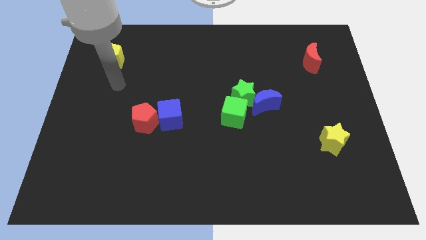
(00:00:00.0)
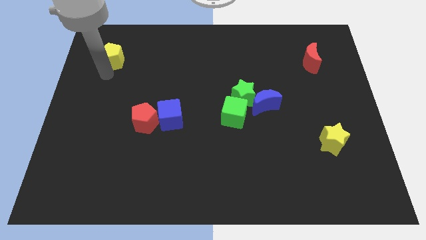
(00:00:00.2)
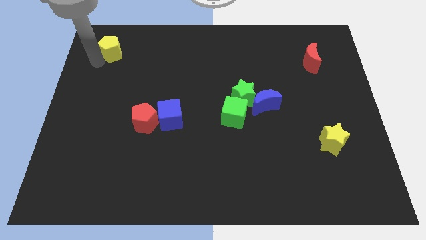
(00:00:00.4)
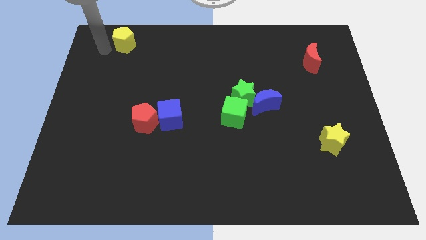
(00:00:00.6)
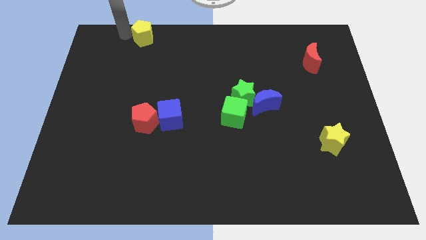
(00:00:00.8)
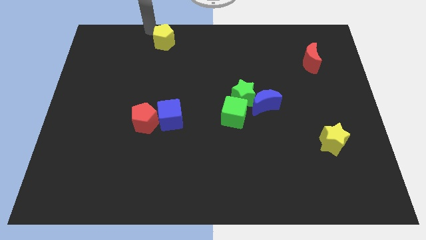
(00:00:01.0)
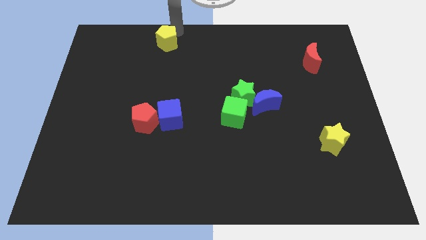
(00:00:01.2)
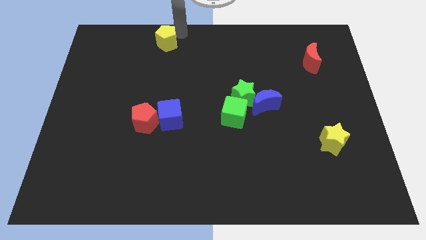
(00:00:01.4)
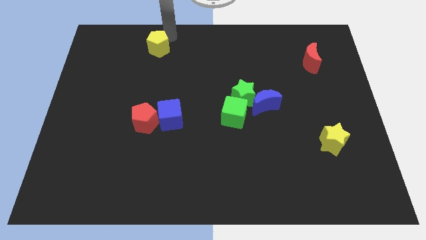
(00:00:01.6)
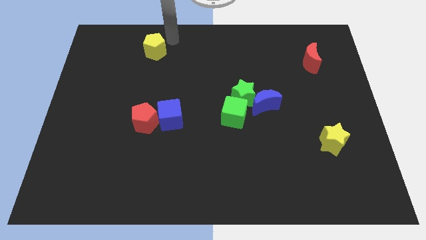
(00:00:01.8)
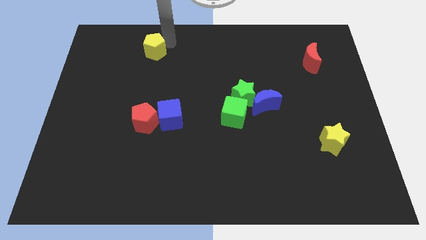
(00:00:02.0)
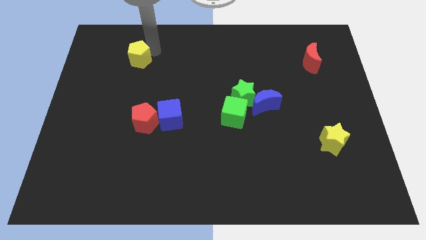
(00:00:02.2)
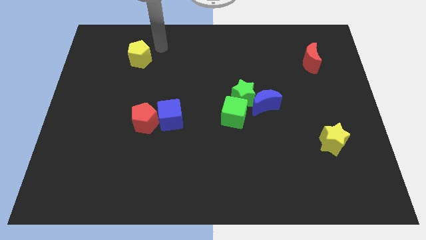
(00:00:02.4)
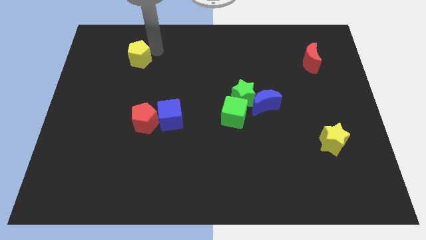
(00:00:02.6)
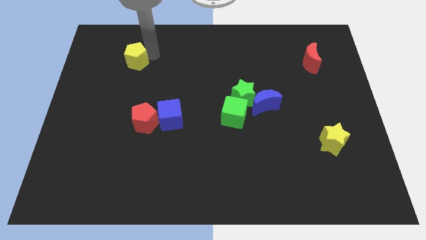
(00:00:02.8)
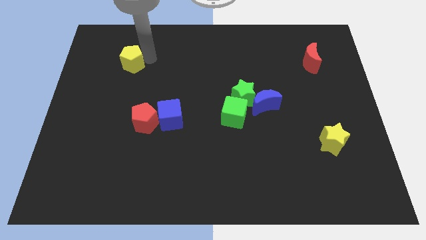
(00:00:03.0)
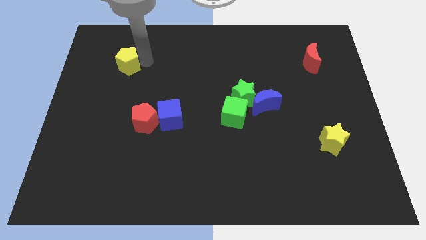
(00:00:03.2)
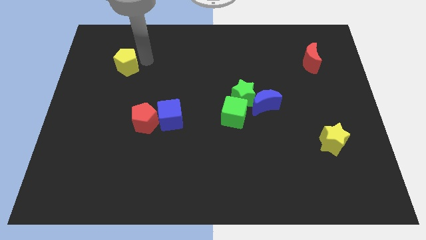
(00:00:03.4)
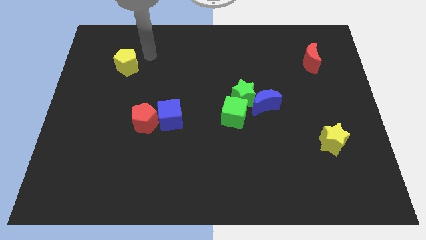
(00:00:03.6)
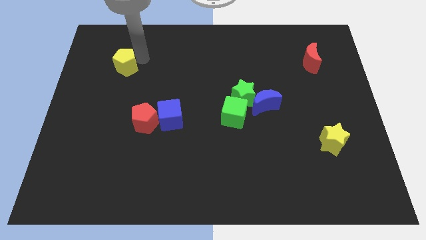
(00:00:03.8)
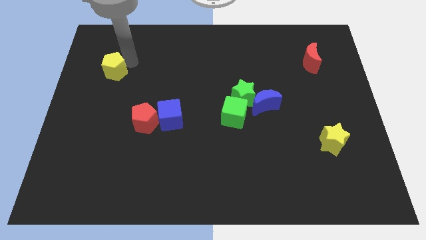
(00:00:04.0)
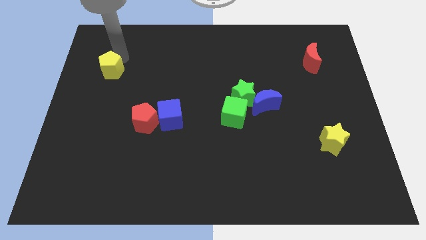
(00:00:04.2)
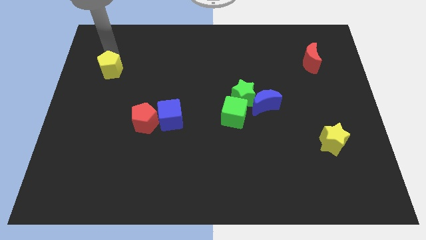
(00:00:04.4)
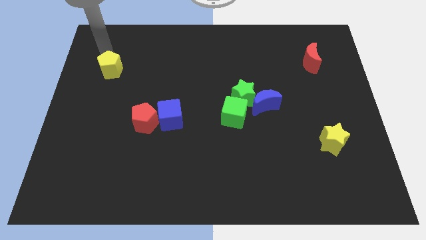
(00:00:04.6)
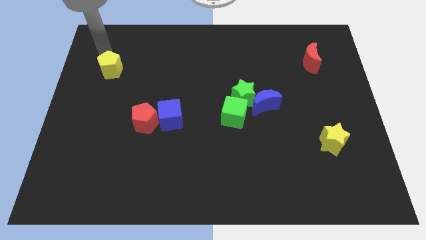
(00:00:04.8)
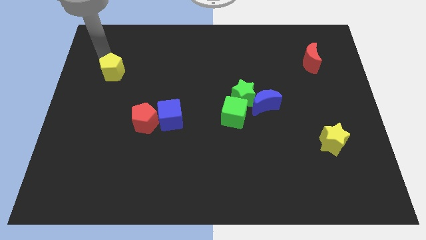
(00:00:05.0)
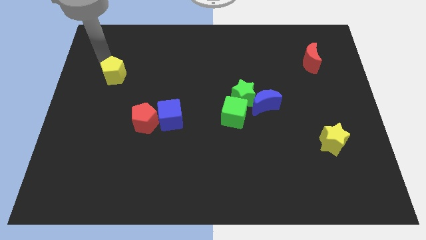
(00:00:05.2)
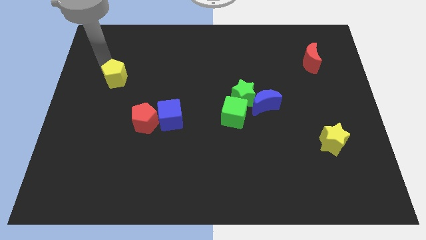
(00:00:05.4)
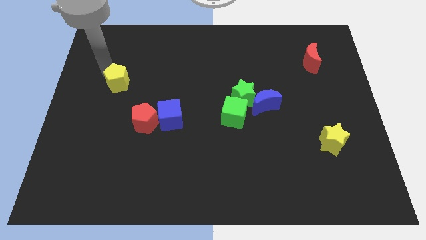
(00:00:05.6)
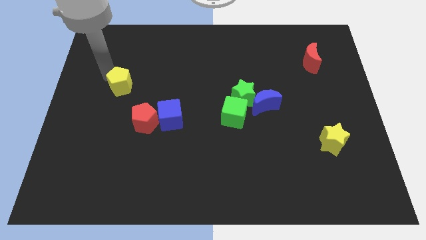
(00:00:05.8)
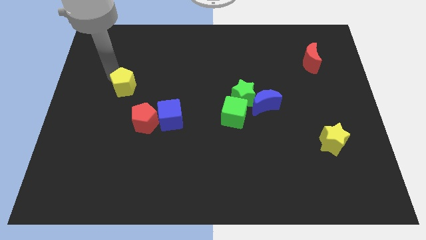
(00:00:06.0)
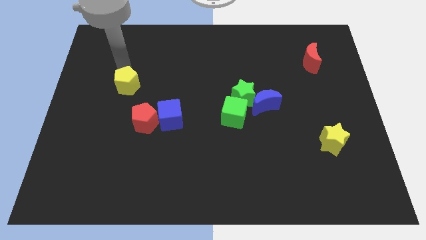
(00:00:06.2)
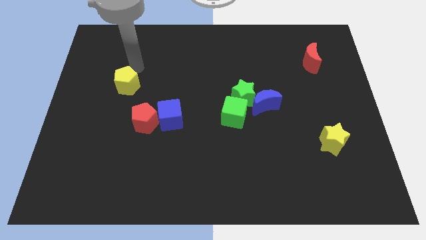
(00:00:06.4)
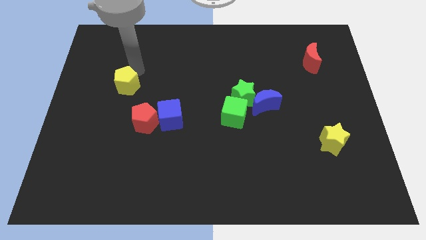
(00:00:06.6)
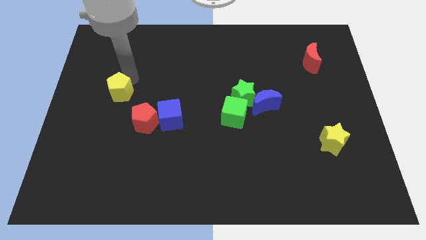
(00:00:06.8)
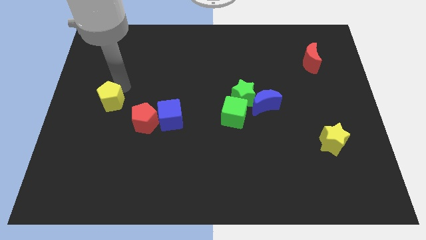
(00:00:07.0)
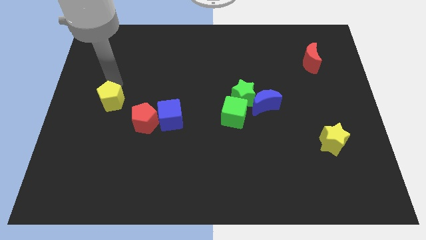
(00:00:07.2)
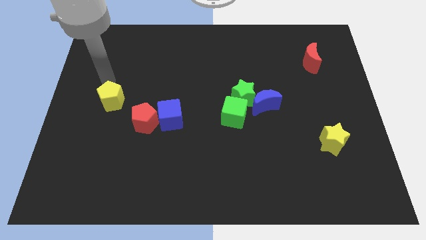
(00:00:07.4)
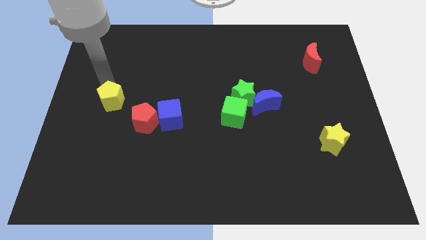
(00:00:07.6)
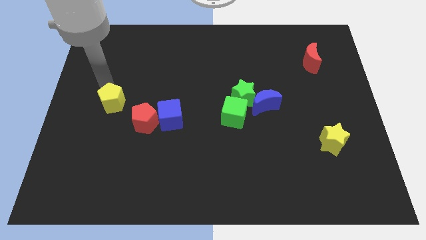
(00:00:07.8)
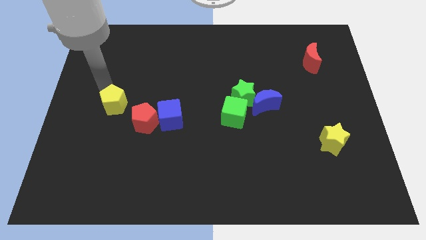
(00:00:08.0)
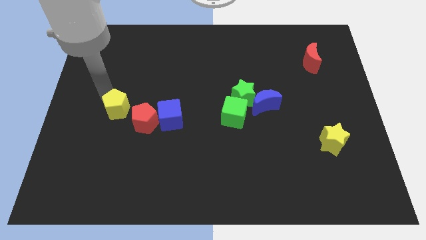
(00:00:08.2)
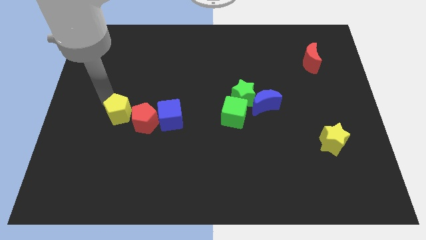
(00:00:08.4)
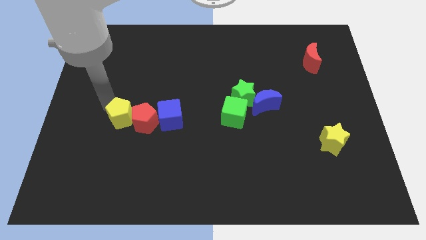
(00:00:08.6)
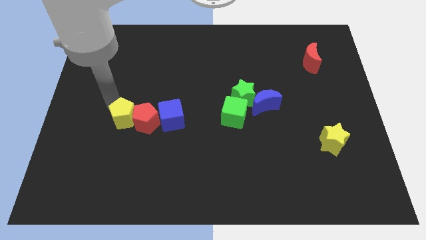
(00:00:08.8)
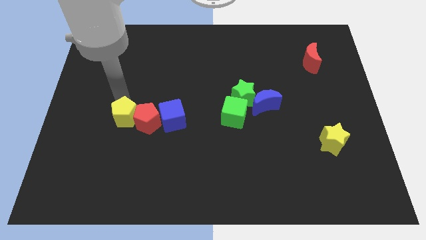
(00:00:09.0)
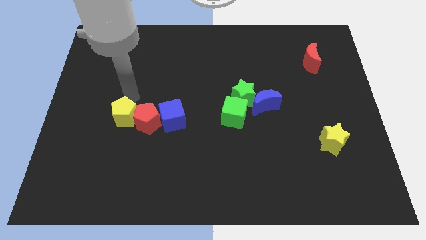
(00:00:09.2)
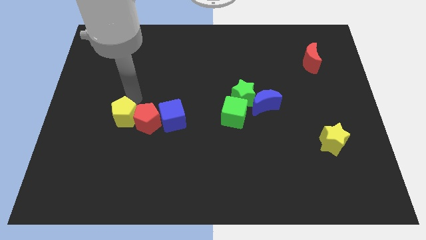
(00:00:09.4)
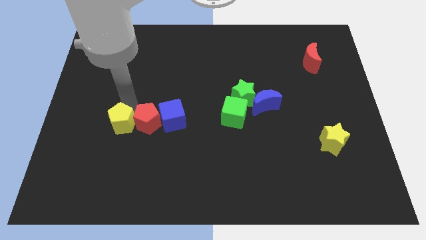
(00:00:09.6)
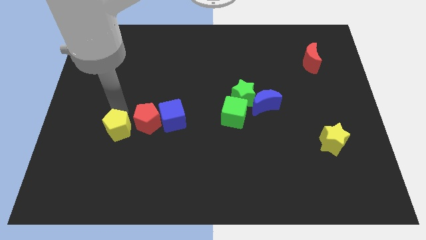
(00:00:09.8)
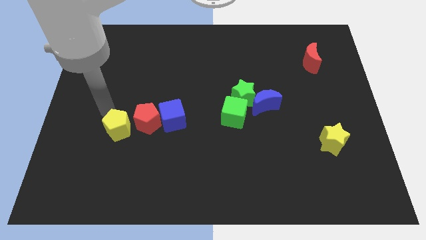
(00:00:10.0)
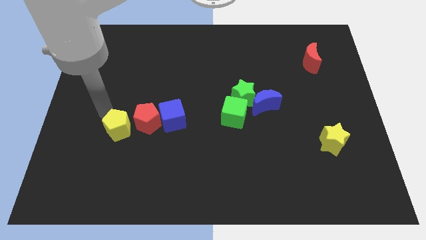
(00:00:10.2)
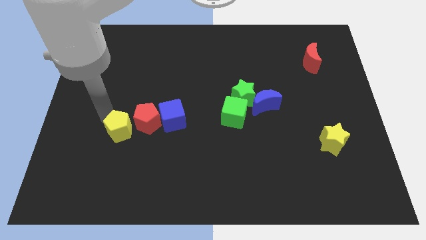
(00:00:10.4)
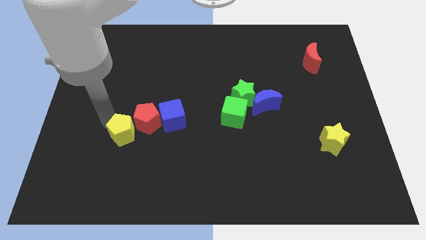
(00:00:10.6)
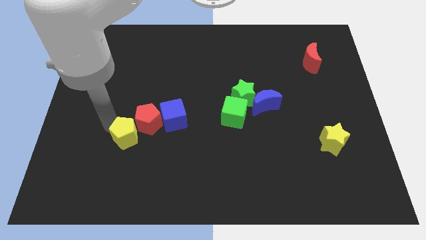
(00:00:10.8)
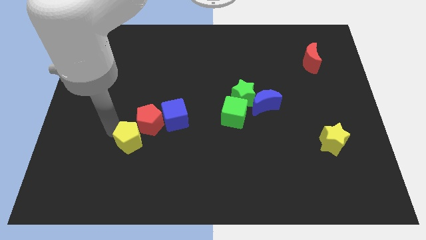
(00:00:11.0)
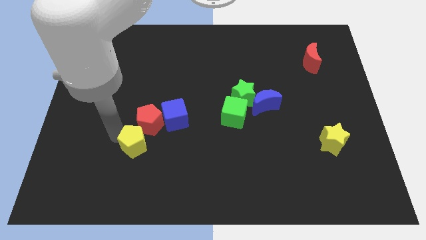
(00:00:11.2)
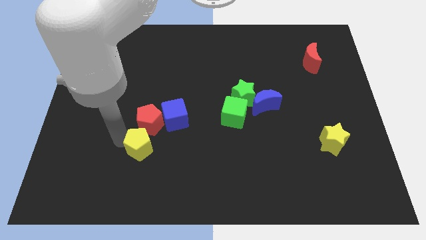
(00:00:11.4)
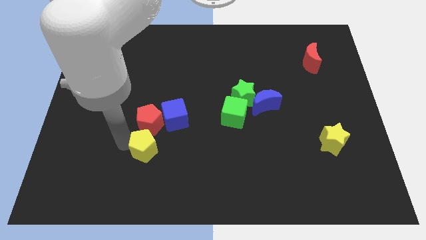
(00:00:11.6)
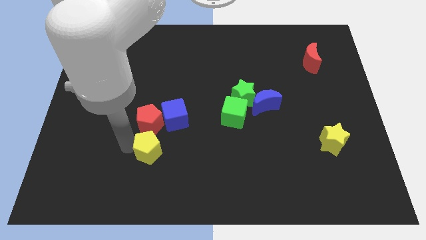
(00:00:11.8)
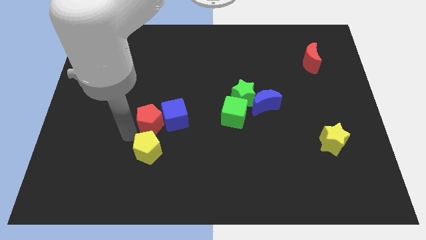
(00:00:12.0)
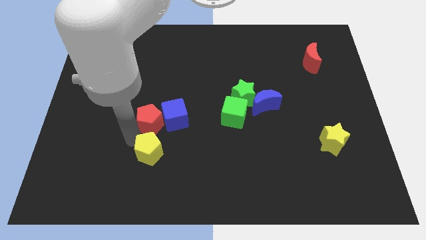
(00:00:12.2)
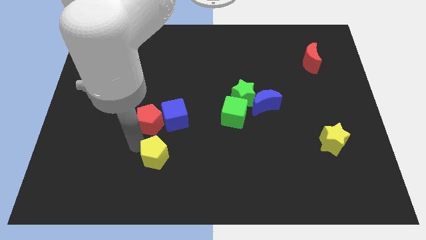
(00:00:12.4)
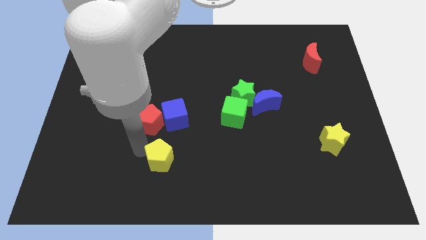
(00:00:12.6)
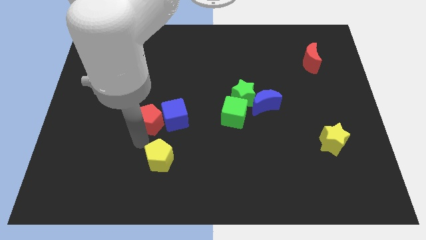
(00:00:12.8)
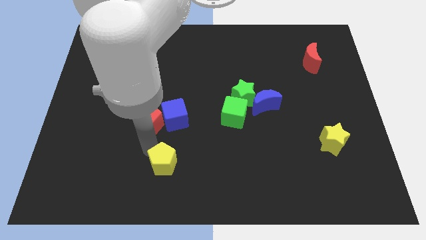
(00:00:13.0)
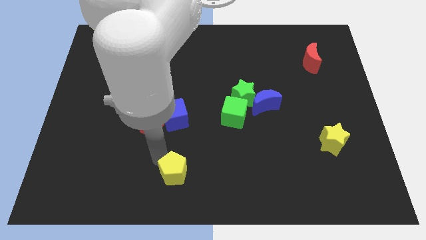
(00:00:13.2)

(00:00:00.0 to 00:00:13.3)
slide the yellow pentagon to the bottom side
